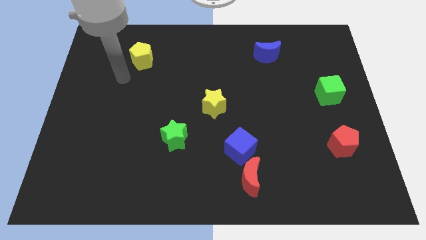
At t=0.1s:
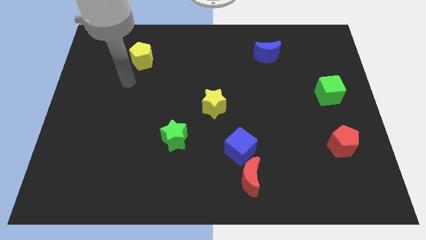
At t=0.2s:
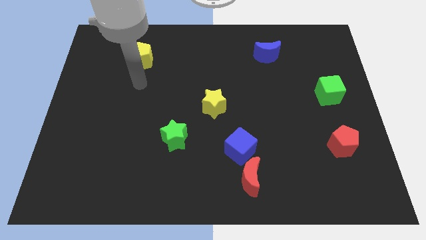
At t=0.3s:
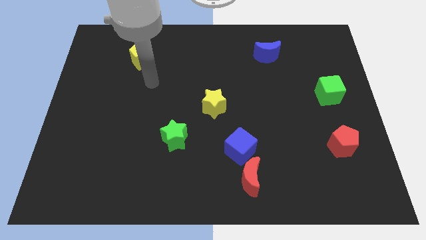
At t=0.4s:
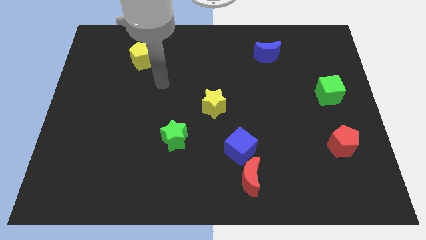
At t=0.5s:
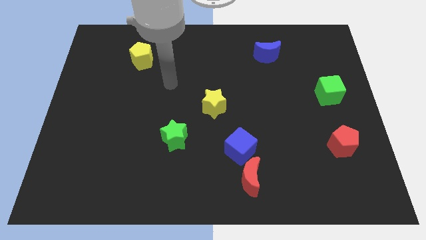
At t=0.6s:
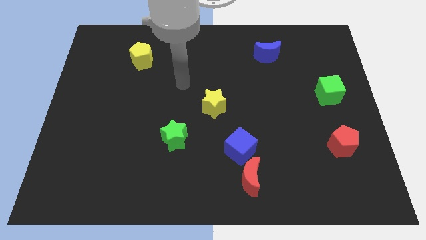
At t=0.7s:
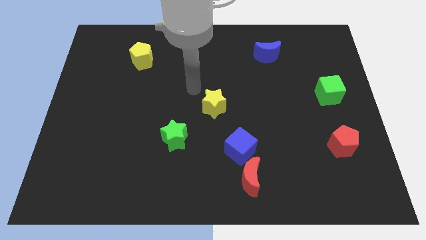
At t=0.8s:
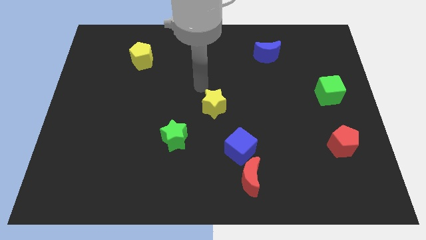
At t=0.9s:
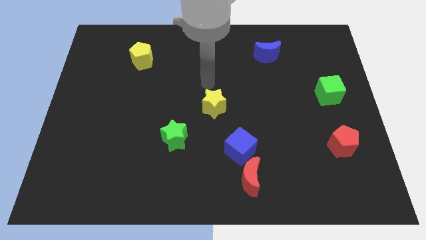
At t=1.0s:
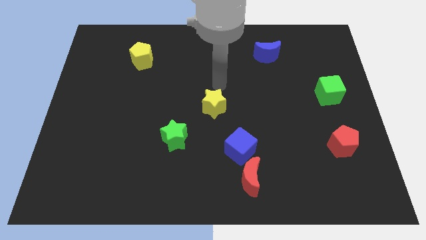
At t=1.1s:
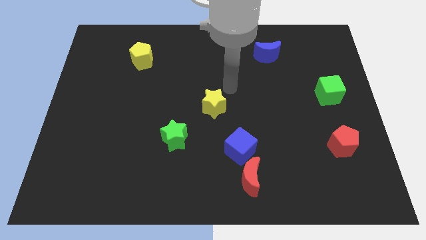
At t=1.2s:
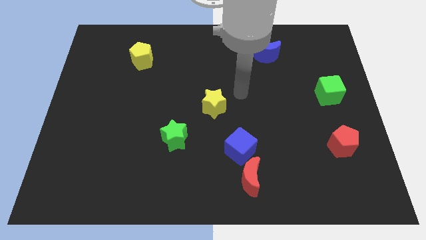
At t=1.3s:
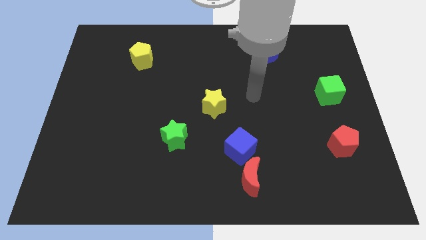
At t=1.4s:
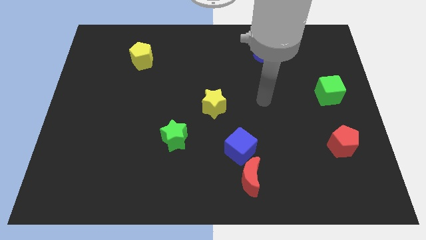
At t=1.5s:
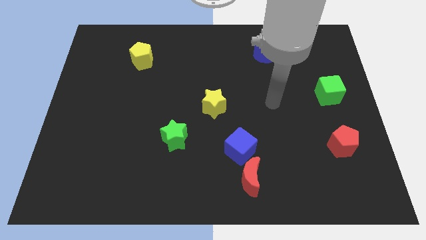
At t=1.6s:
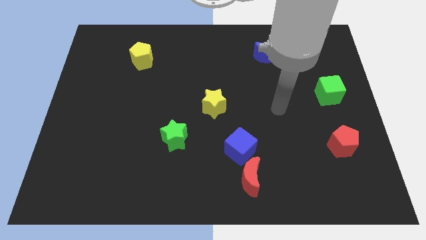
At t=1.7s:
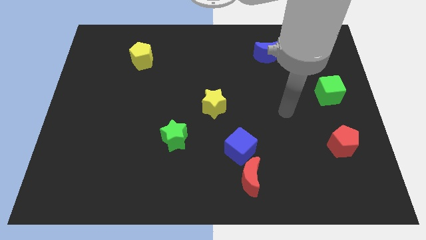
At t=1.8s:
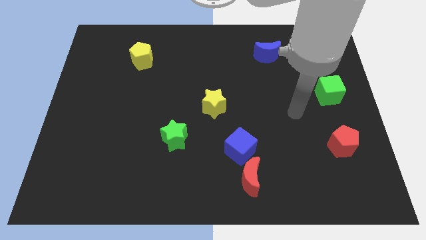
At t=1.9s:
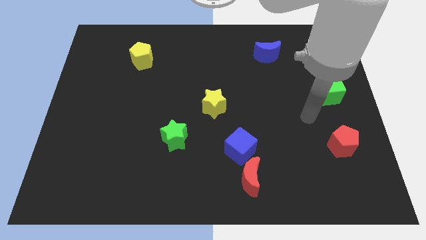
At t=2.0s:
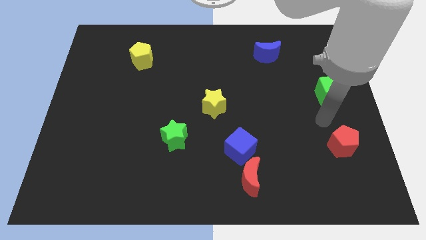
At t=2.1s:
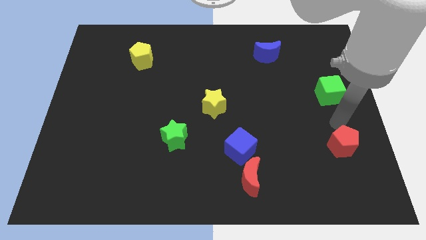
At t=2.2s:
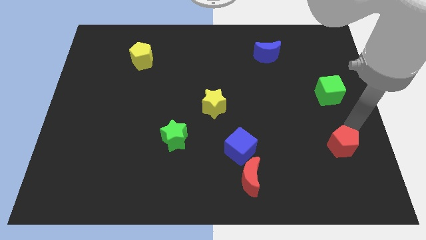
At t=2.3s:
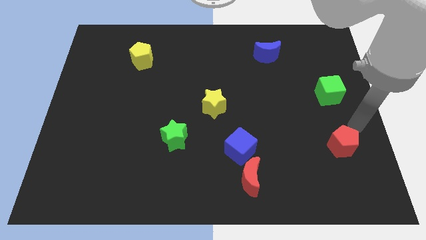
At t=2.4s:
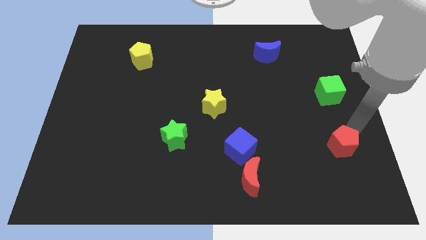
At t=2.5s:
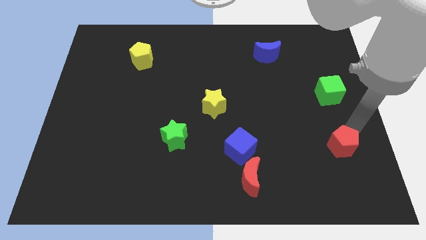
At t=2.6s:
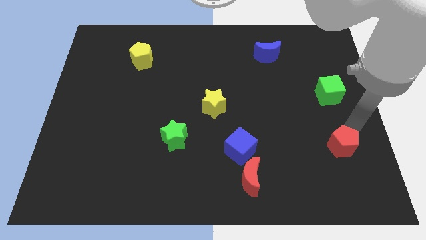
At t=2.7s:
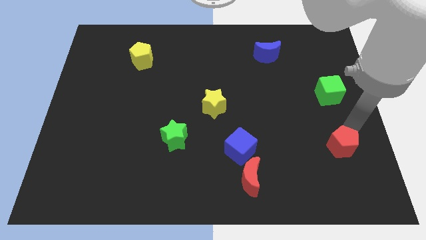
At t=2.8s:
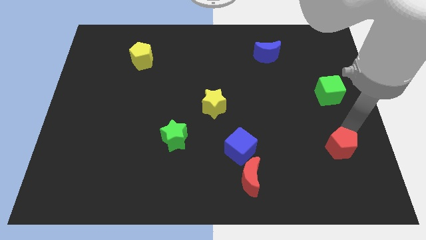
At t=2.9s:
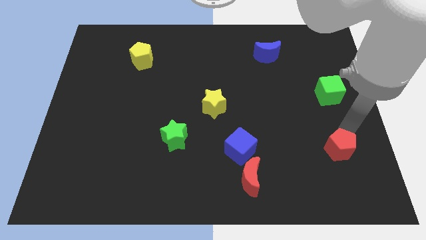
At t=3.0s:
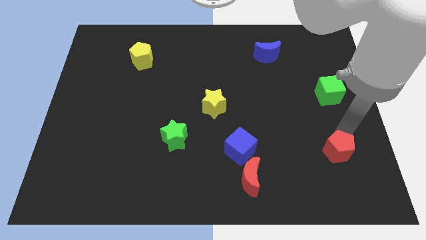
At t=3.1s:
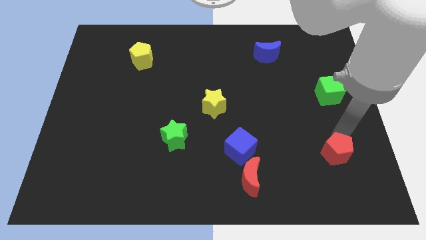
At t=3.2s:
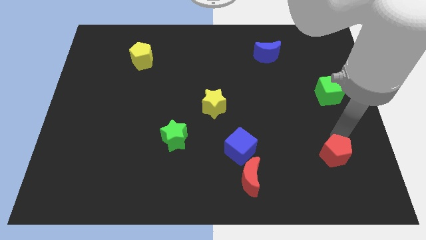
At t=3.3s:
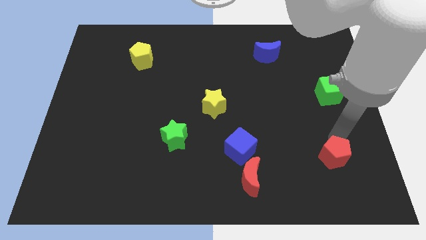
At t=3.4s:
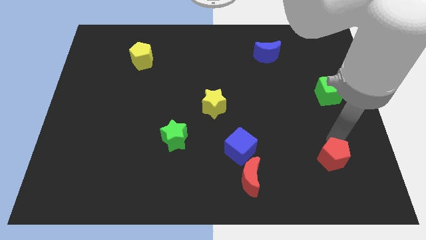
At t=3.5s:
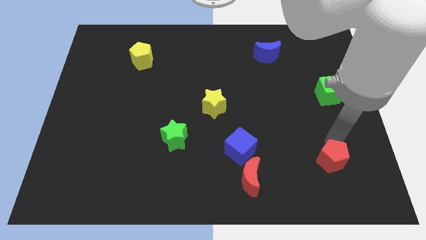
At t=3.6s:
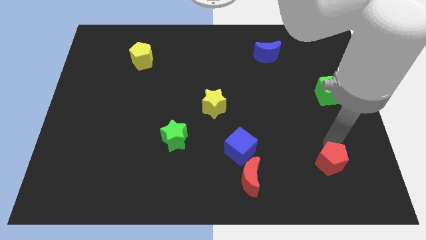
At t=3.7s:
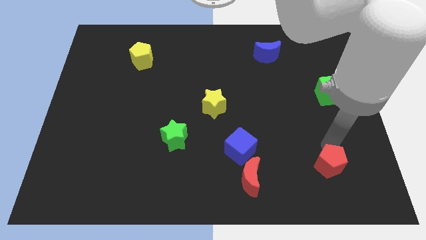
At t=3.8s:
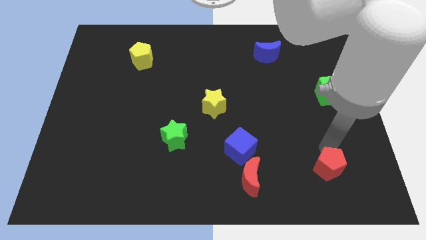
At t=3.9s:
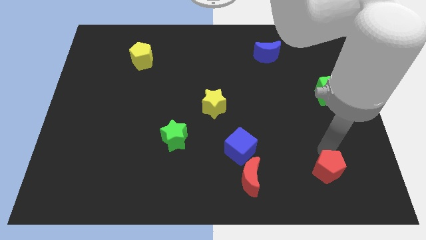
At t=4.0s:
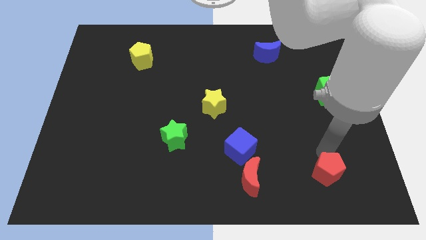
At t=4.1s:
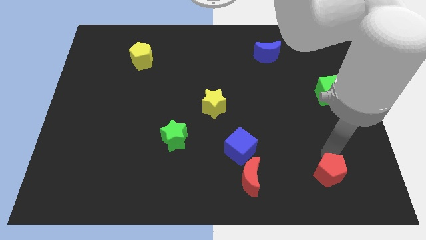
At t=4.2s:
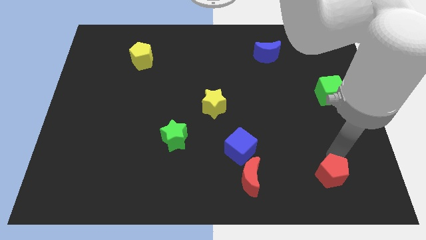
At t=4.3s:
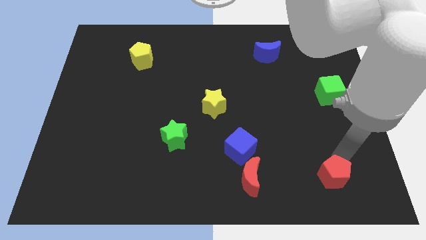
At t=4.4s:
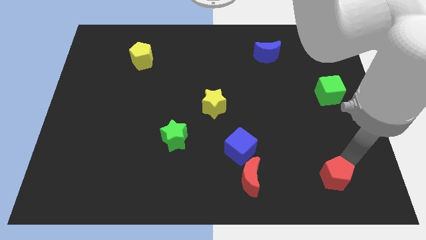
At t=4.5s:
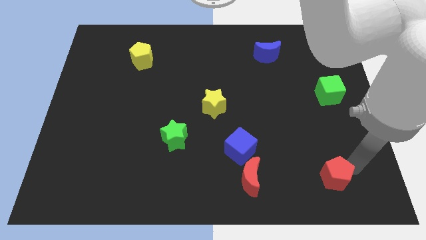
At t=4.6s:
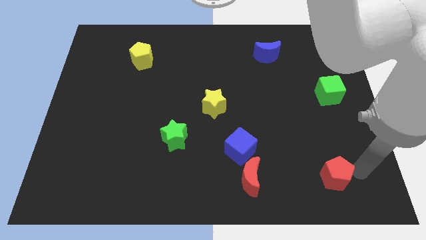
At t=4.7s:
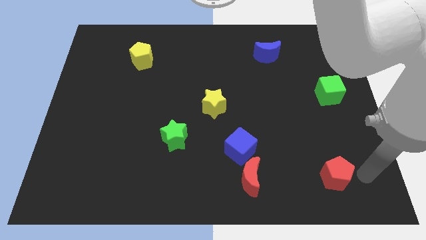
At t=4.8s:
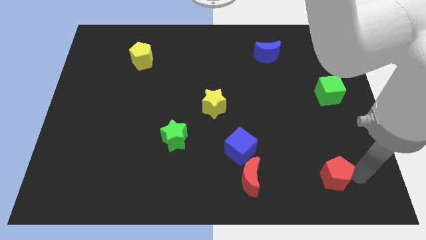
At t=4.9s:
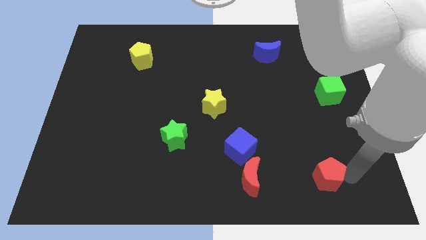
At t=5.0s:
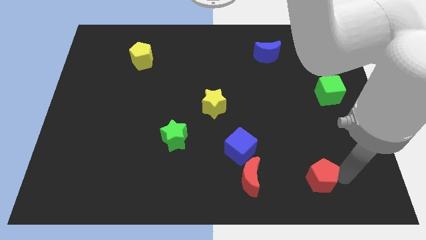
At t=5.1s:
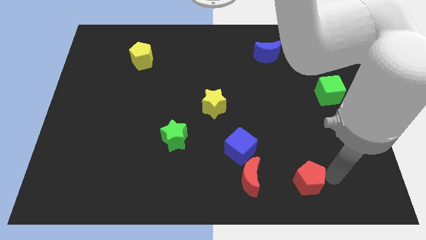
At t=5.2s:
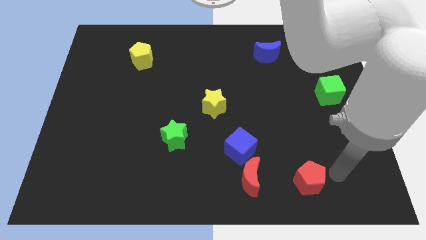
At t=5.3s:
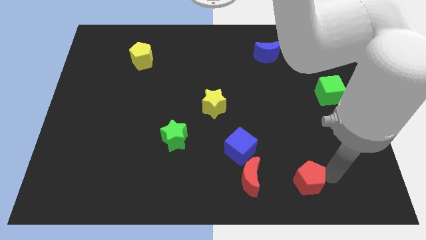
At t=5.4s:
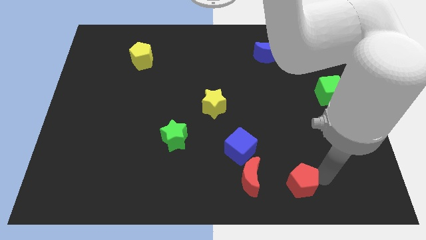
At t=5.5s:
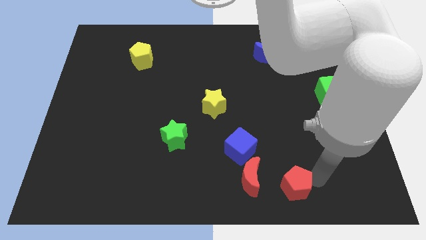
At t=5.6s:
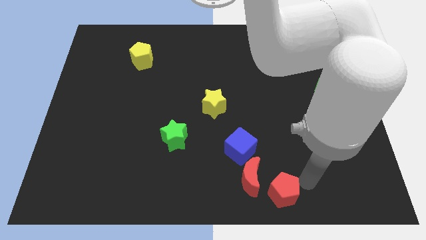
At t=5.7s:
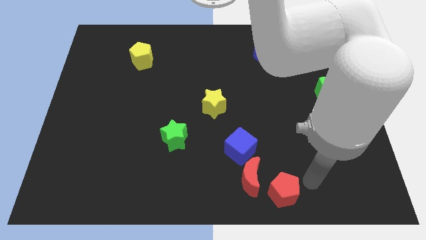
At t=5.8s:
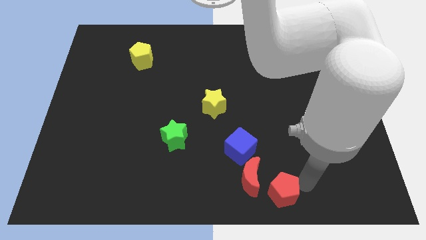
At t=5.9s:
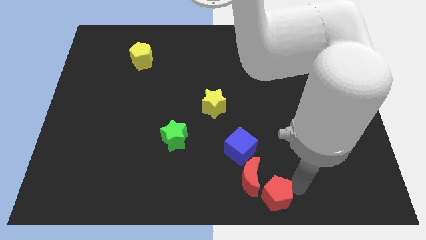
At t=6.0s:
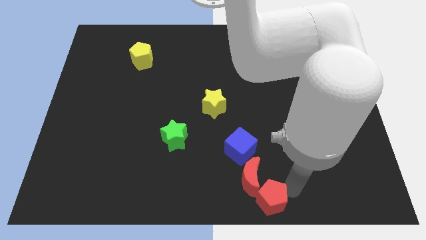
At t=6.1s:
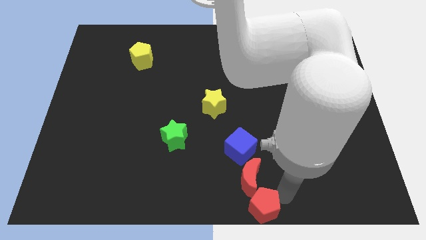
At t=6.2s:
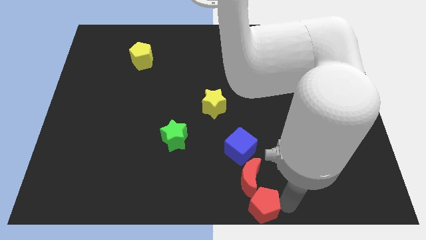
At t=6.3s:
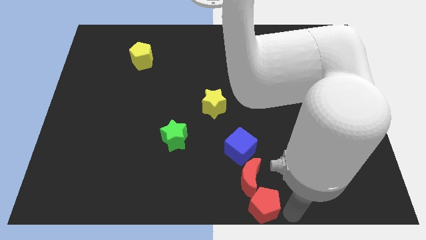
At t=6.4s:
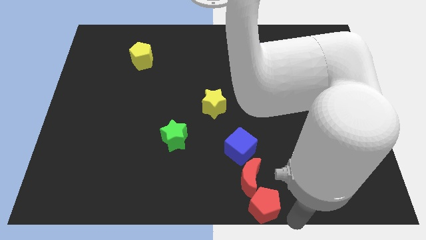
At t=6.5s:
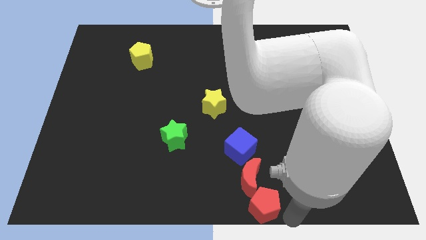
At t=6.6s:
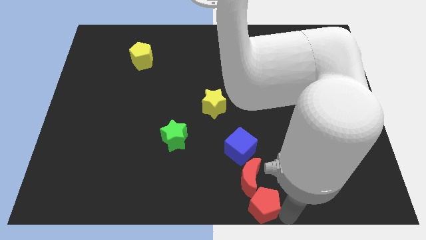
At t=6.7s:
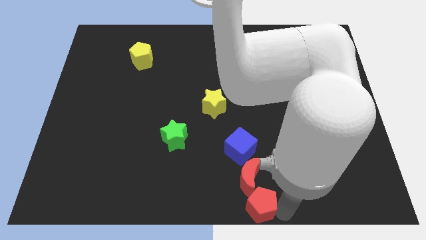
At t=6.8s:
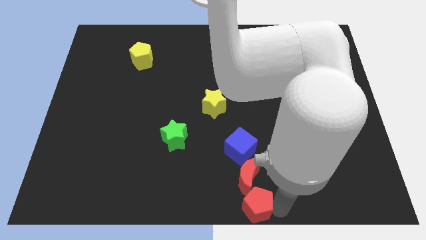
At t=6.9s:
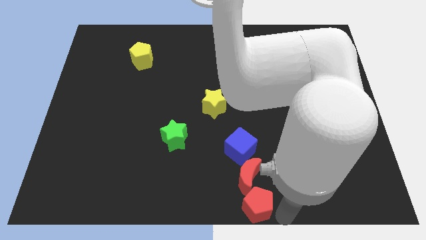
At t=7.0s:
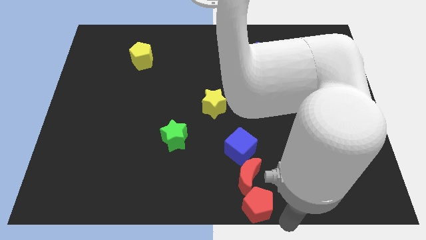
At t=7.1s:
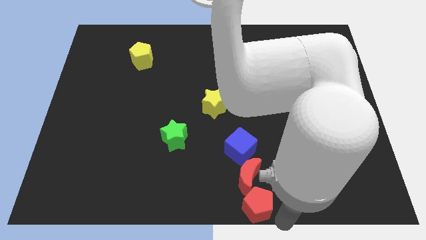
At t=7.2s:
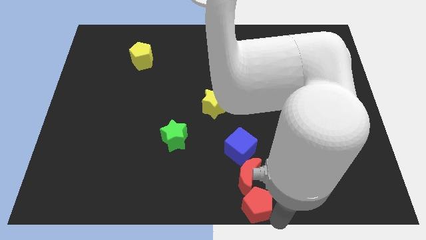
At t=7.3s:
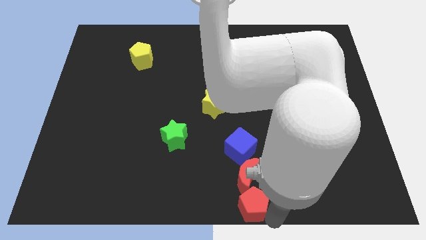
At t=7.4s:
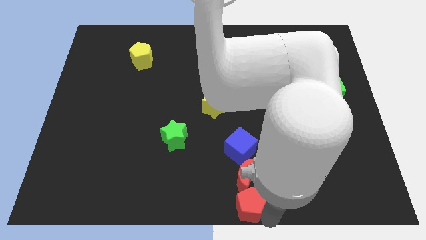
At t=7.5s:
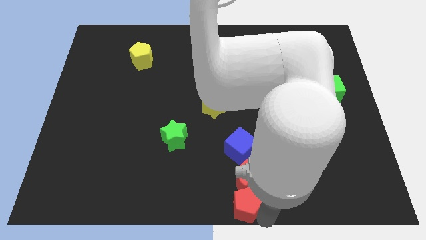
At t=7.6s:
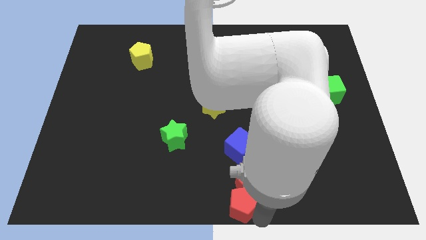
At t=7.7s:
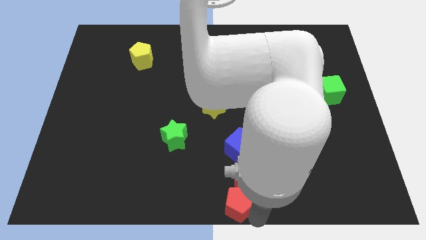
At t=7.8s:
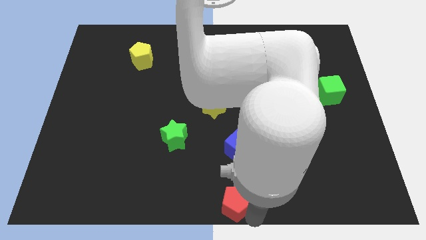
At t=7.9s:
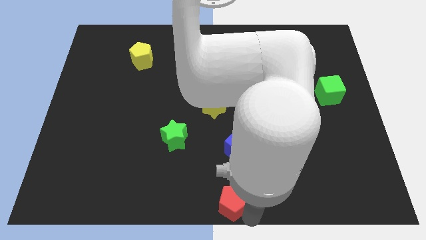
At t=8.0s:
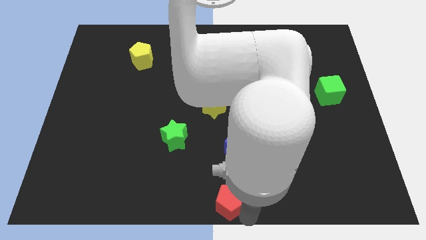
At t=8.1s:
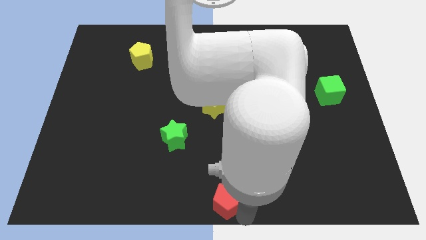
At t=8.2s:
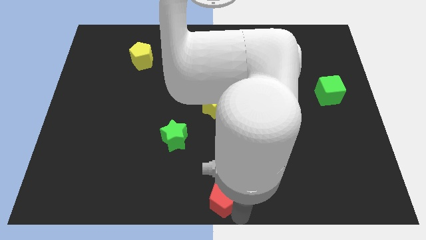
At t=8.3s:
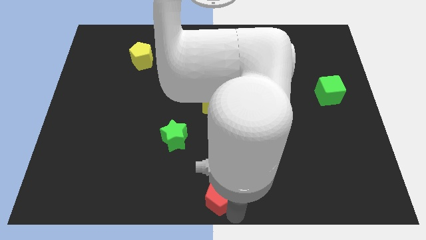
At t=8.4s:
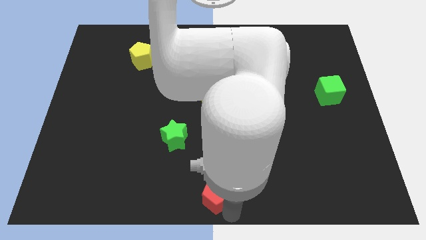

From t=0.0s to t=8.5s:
move the red pentagon just left of the red moon
